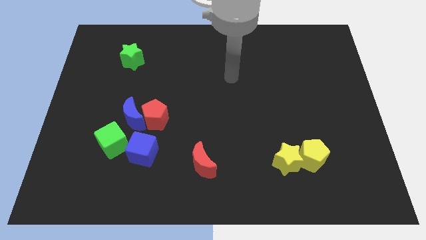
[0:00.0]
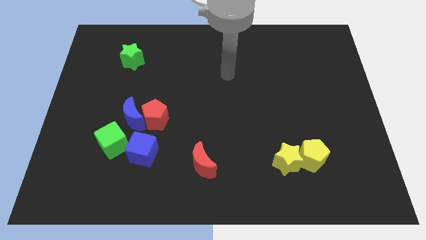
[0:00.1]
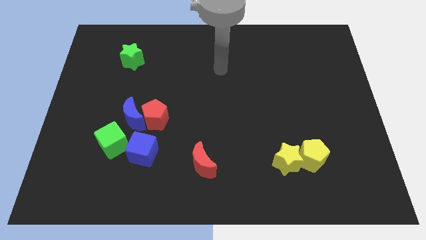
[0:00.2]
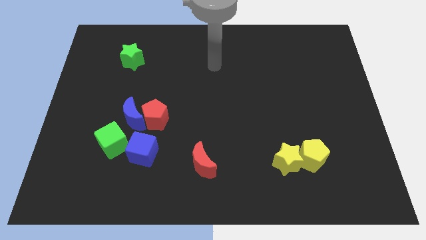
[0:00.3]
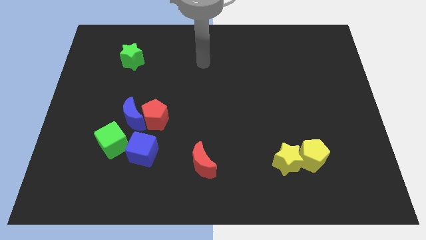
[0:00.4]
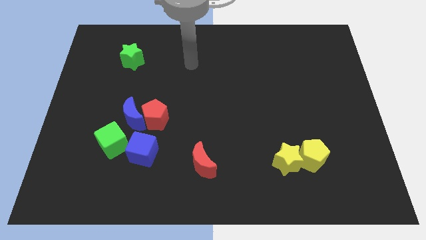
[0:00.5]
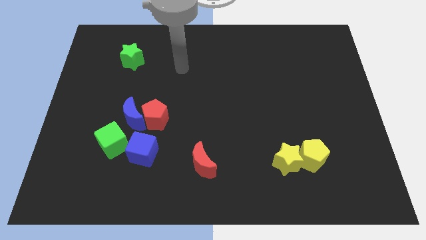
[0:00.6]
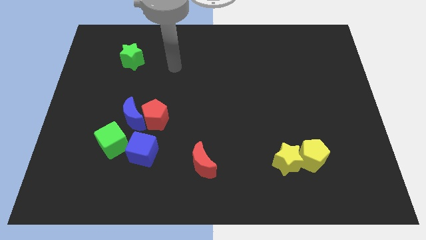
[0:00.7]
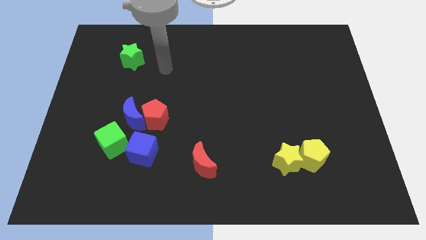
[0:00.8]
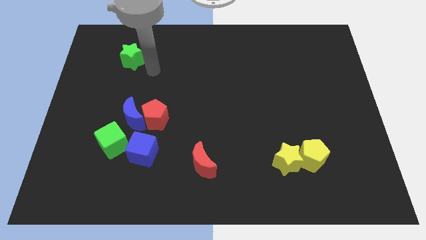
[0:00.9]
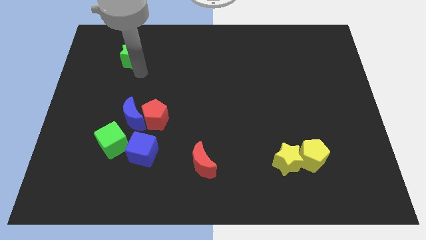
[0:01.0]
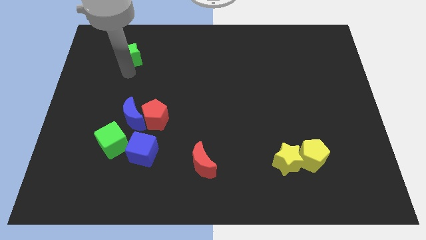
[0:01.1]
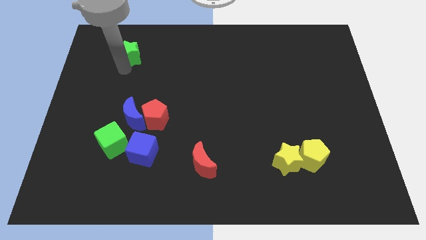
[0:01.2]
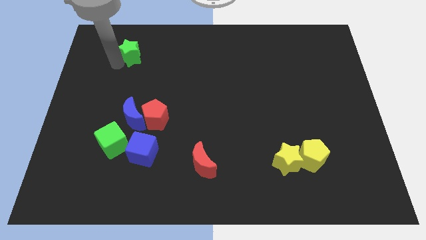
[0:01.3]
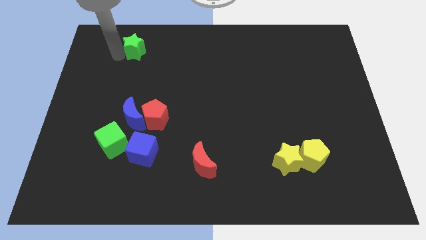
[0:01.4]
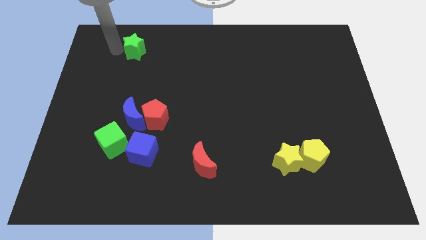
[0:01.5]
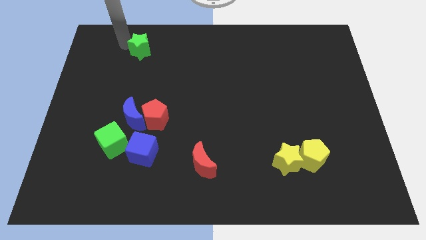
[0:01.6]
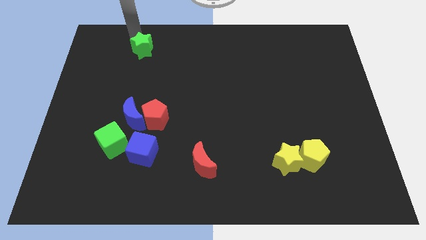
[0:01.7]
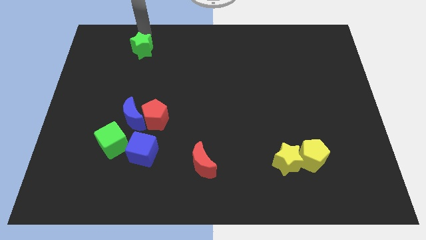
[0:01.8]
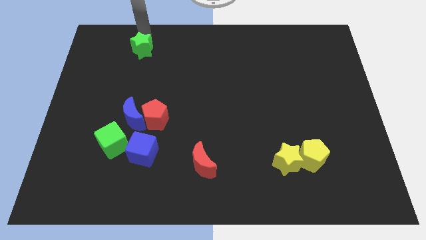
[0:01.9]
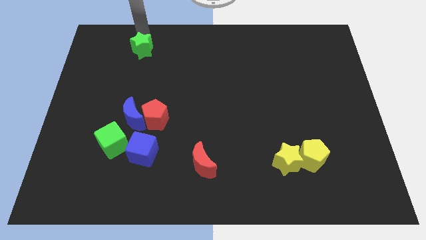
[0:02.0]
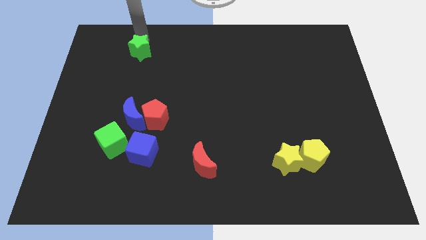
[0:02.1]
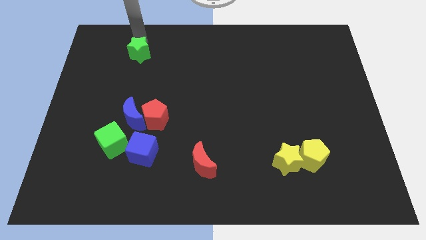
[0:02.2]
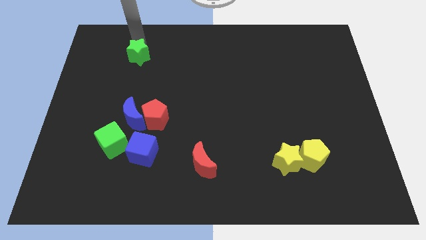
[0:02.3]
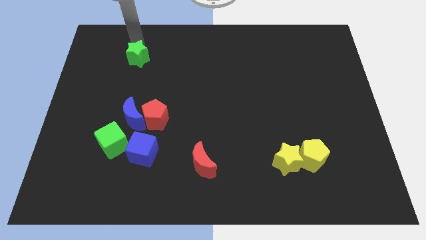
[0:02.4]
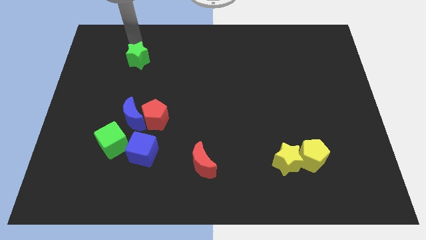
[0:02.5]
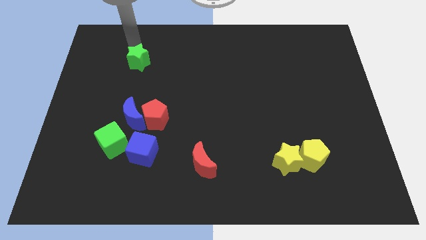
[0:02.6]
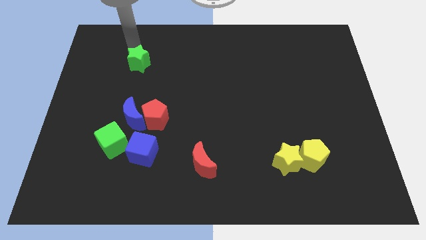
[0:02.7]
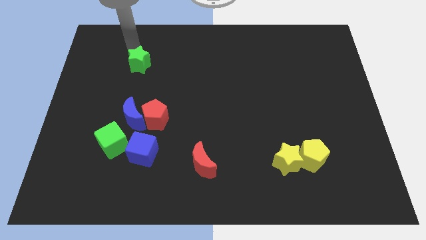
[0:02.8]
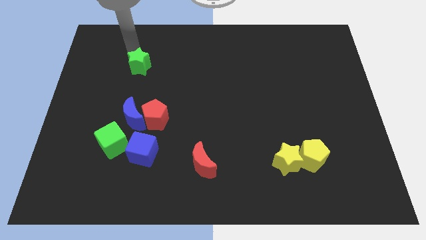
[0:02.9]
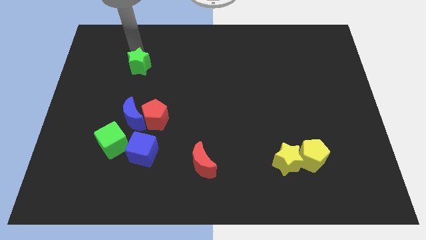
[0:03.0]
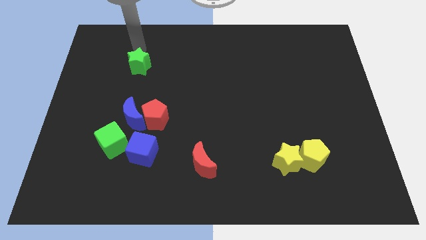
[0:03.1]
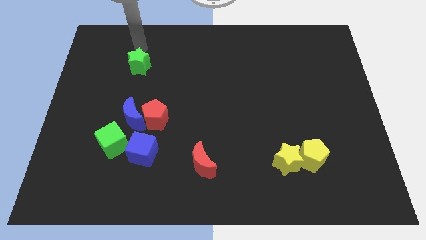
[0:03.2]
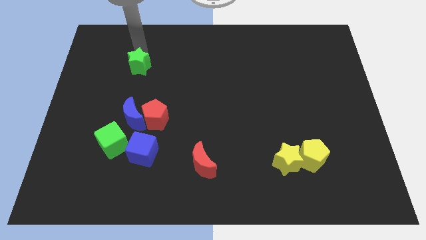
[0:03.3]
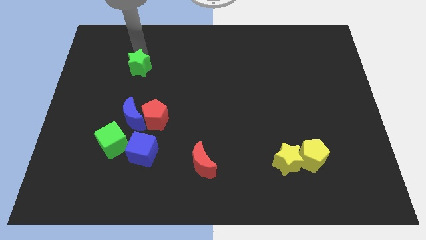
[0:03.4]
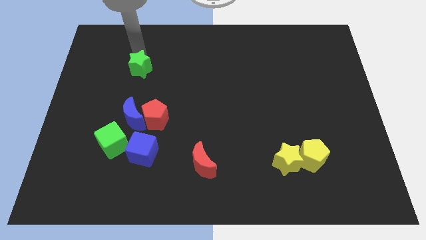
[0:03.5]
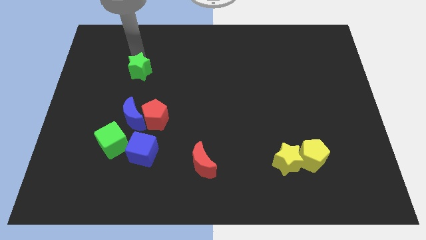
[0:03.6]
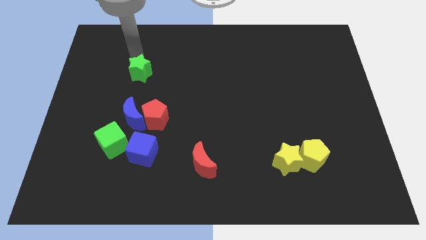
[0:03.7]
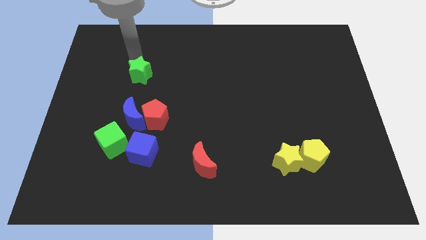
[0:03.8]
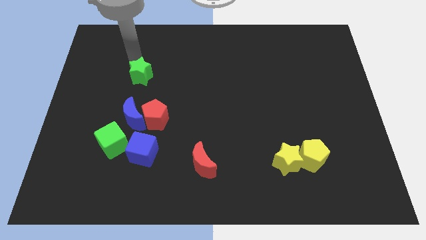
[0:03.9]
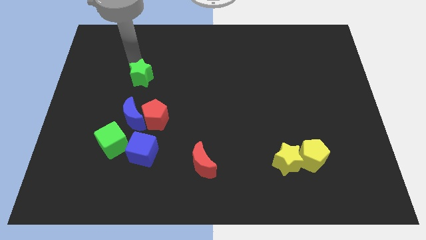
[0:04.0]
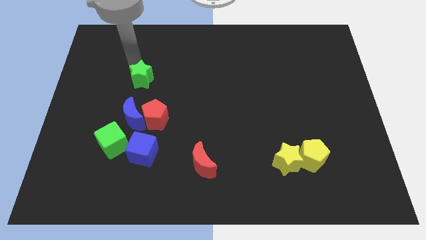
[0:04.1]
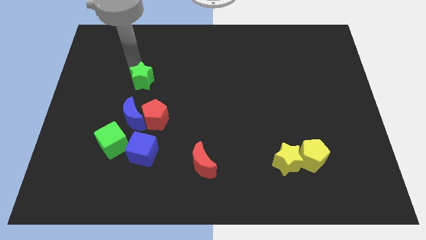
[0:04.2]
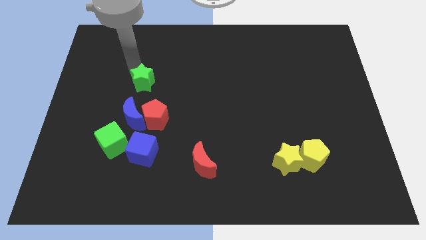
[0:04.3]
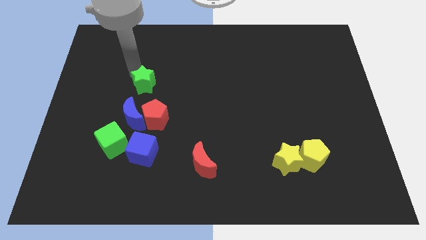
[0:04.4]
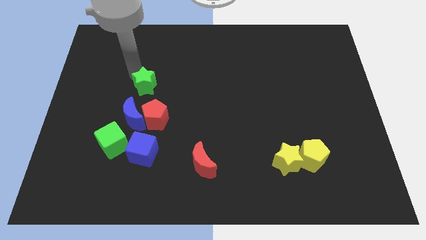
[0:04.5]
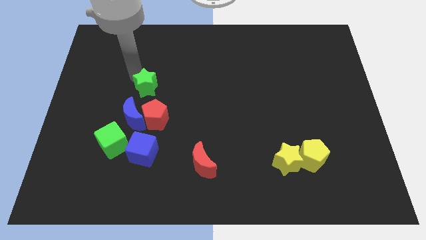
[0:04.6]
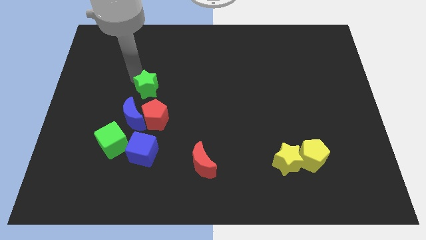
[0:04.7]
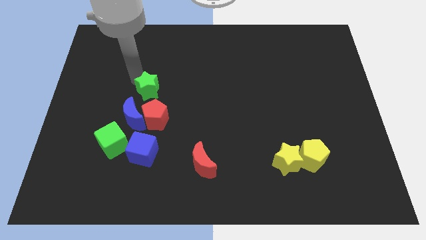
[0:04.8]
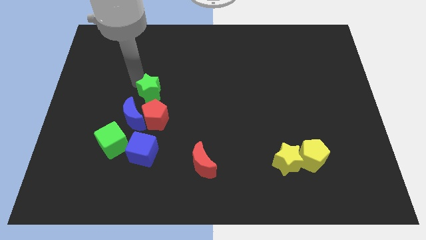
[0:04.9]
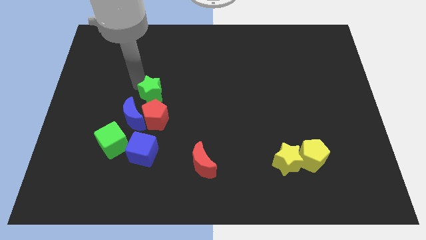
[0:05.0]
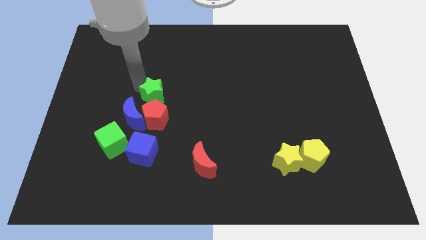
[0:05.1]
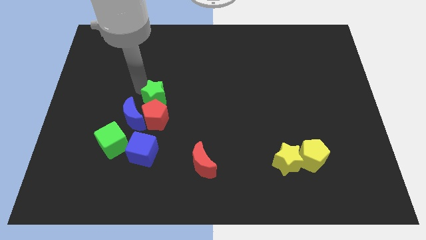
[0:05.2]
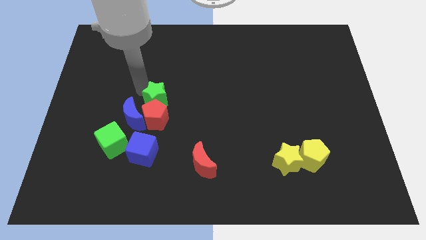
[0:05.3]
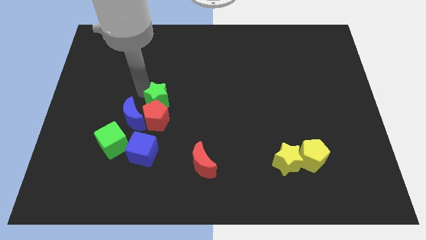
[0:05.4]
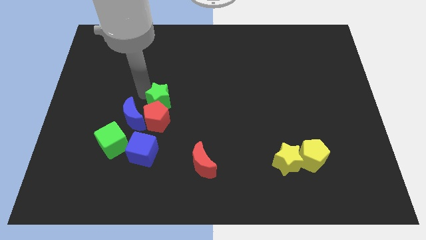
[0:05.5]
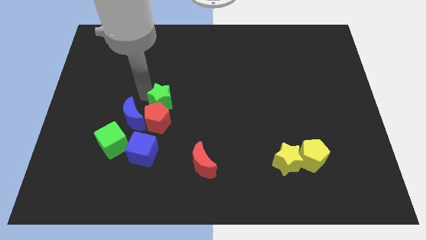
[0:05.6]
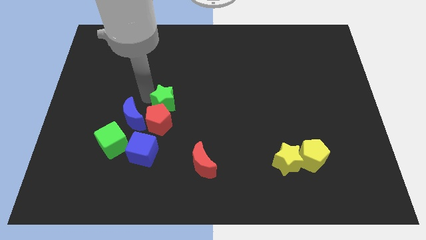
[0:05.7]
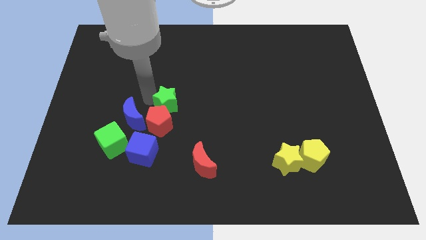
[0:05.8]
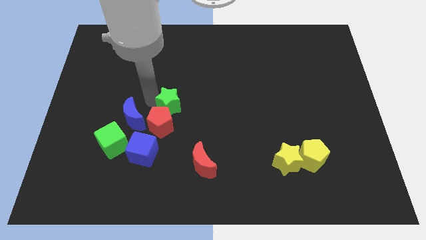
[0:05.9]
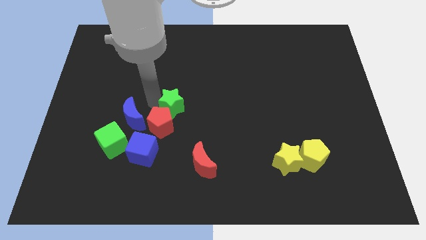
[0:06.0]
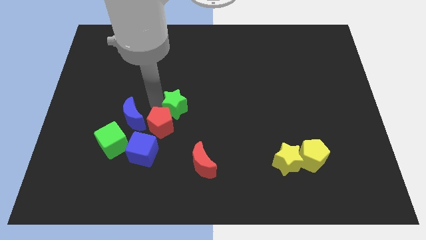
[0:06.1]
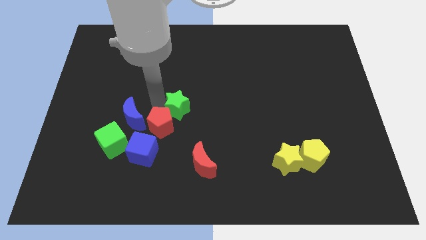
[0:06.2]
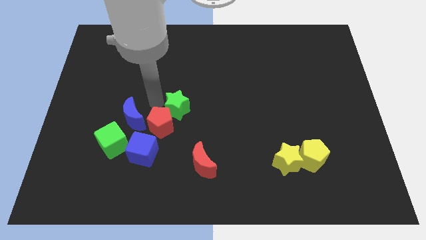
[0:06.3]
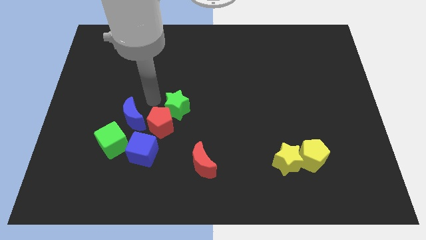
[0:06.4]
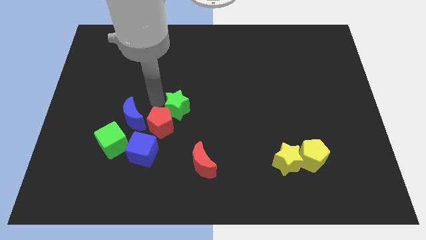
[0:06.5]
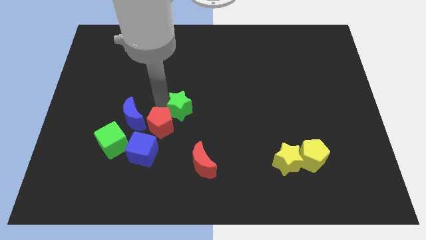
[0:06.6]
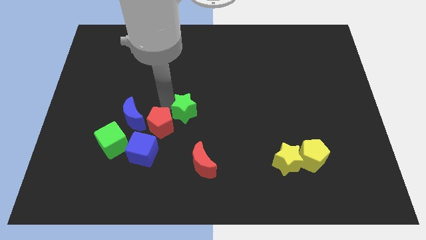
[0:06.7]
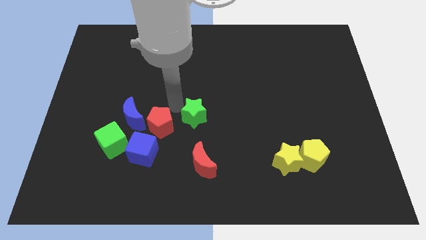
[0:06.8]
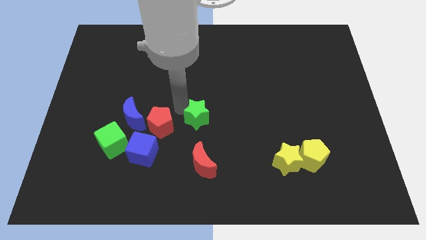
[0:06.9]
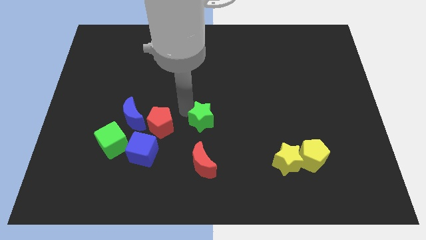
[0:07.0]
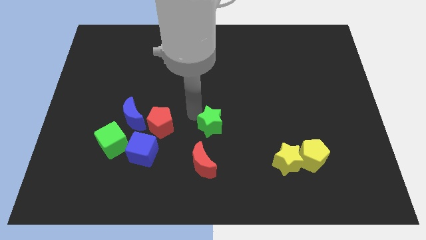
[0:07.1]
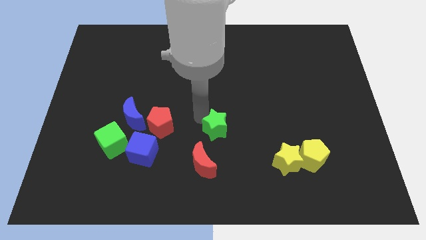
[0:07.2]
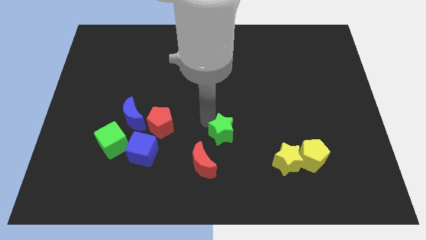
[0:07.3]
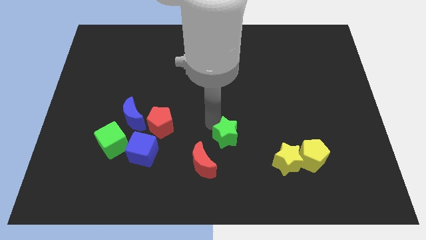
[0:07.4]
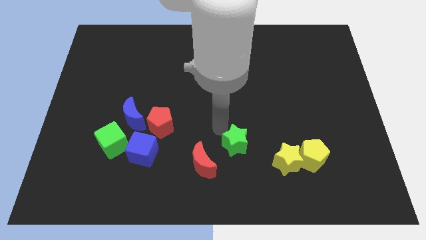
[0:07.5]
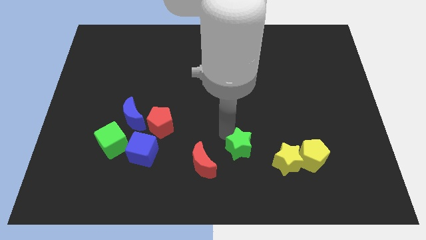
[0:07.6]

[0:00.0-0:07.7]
slide the green star to the right of the red moon
